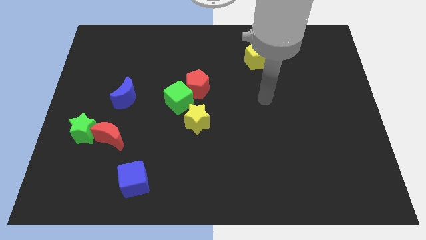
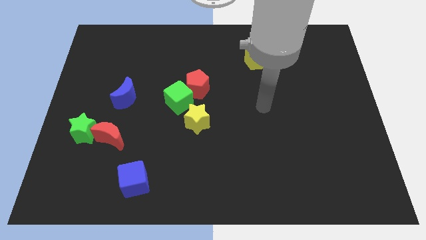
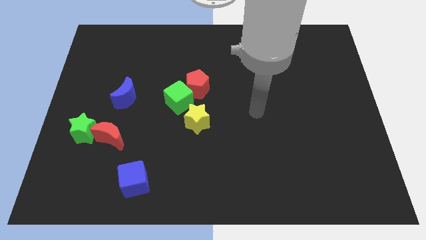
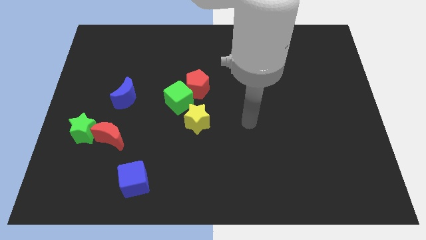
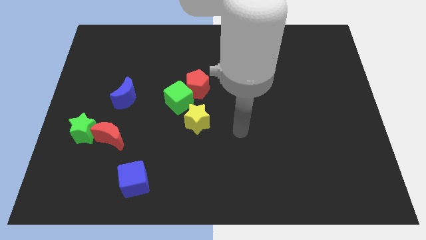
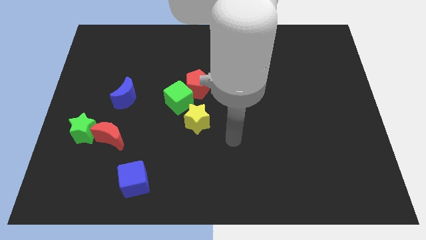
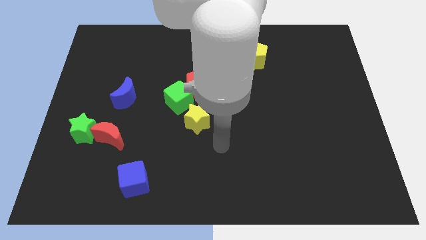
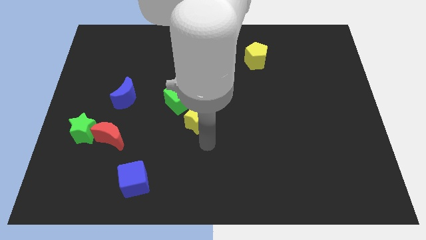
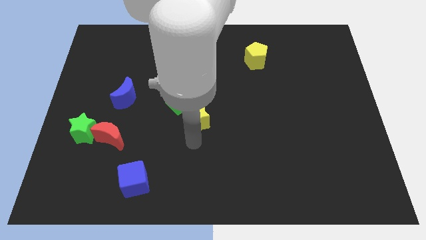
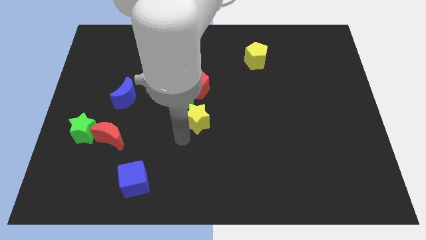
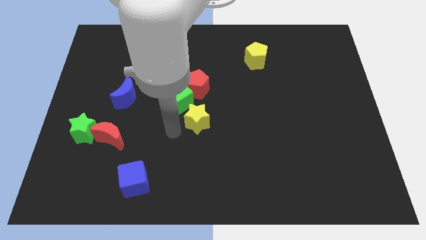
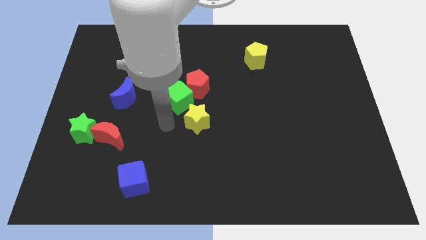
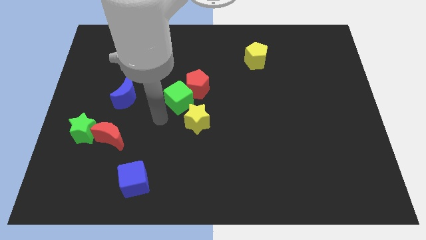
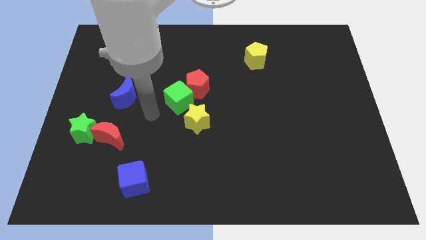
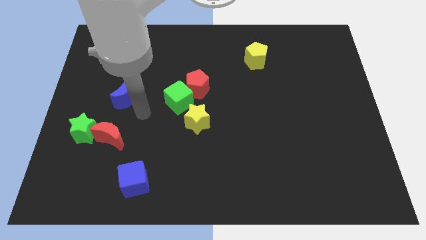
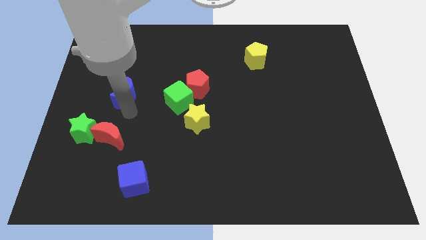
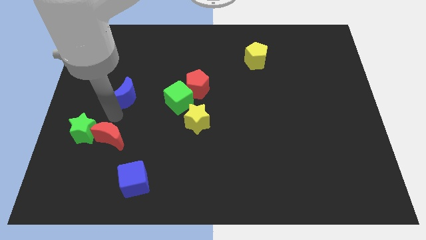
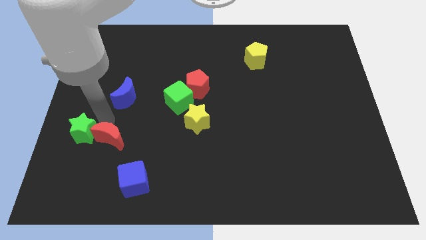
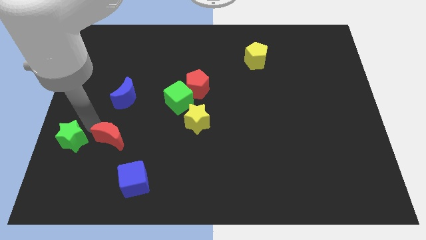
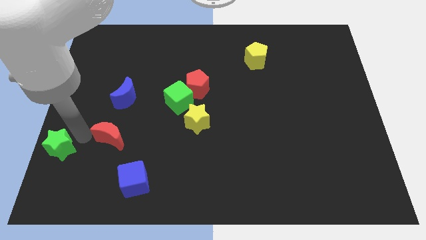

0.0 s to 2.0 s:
separate the red moon from the green star

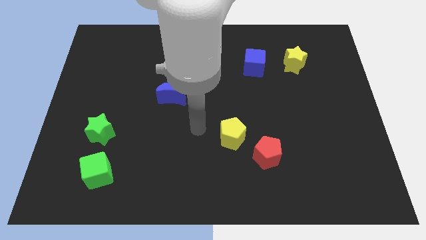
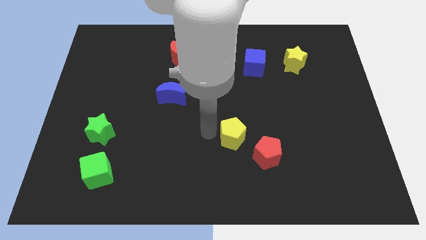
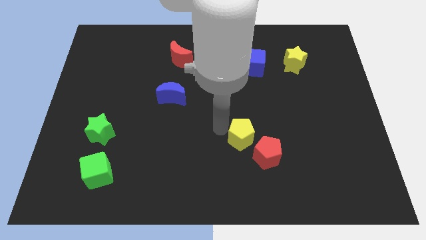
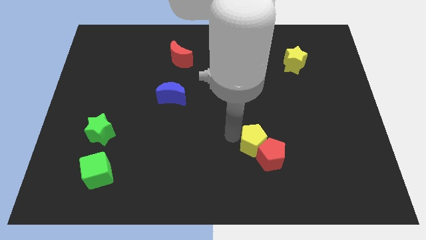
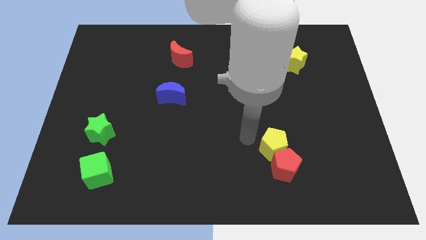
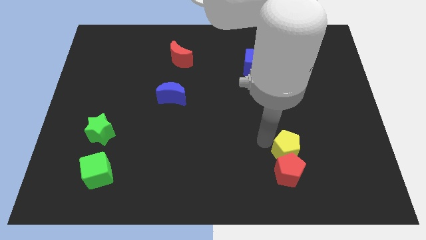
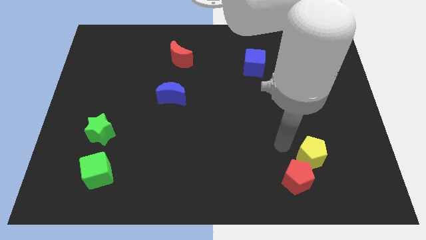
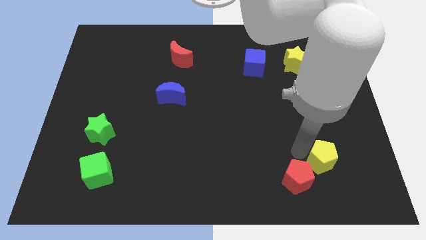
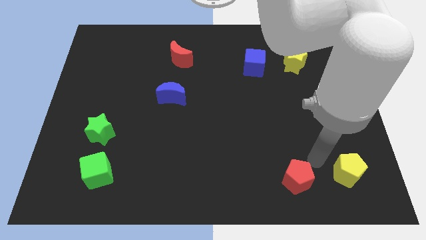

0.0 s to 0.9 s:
pull the red pentagon apart from the yellow pentagon

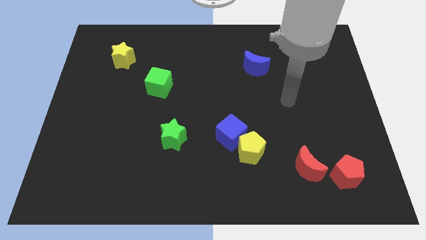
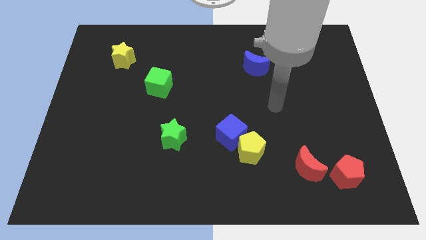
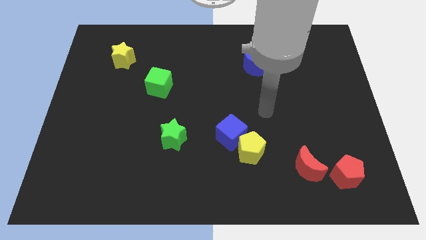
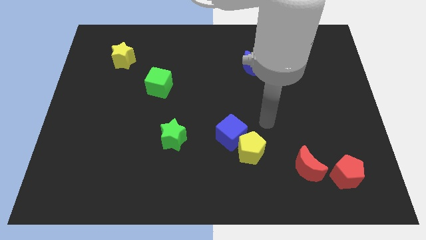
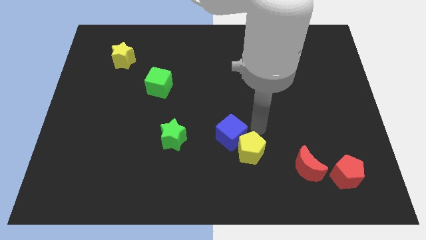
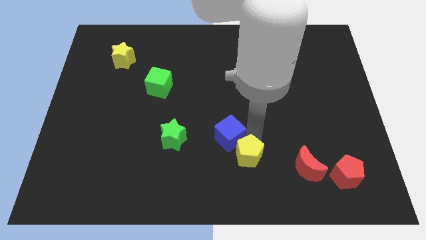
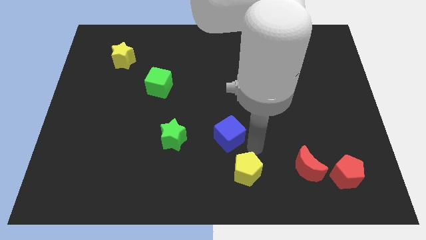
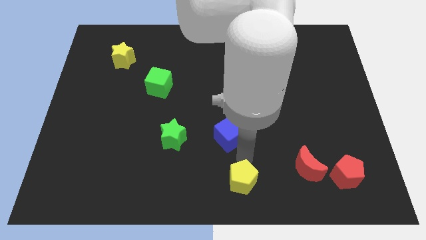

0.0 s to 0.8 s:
move the blue cube away from the yellow pentagon

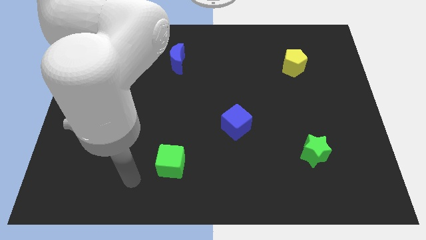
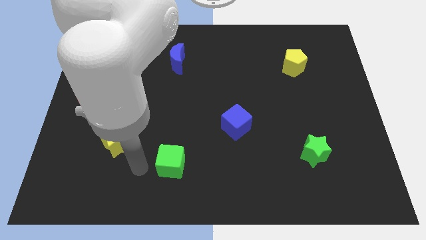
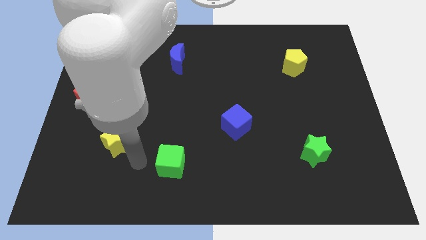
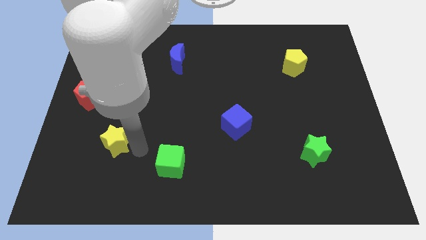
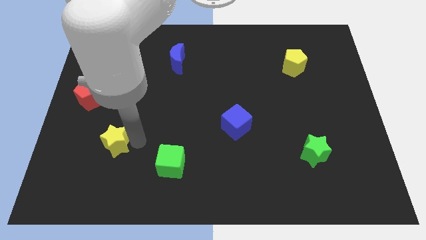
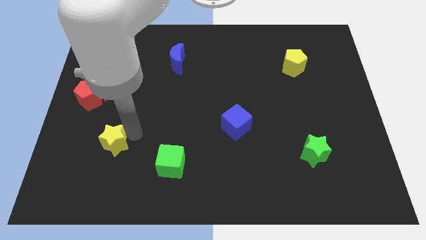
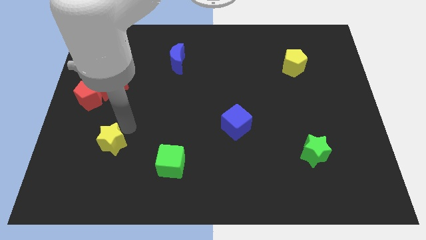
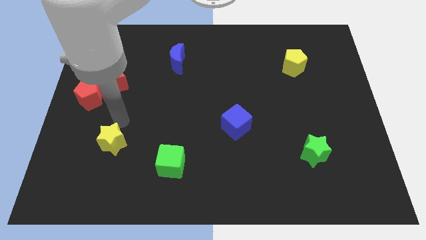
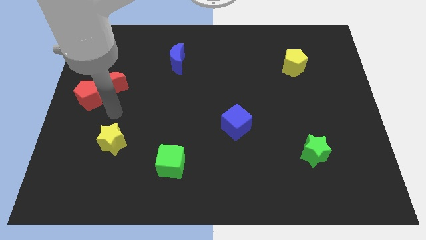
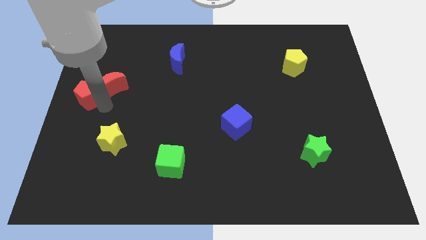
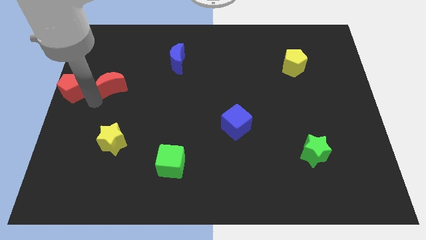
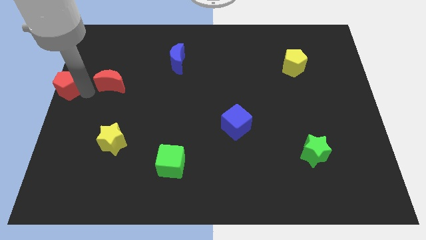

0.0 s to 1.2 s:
move the red moon away from the red pentagon

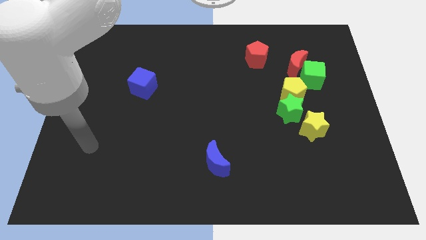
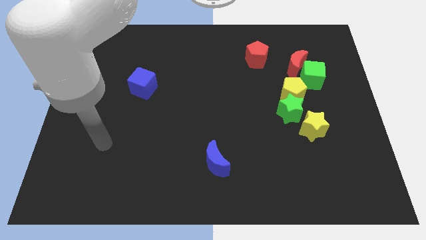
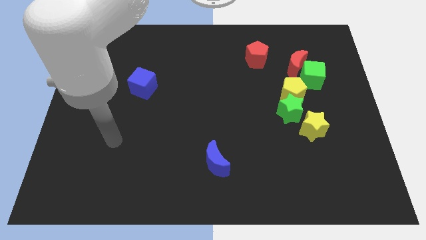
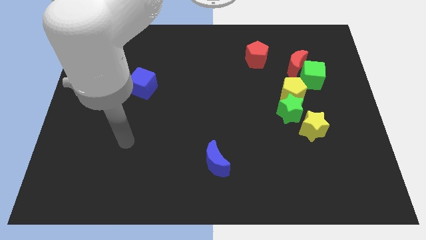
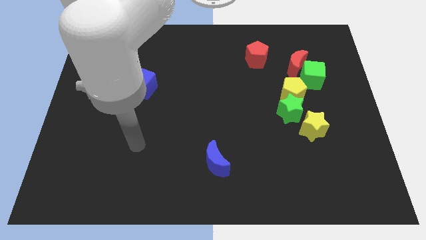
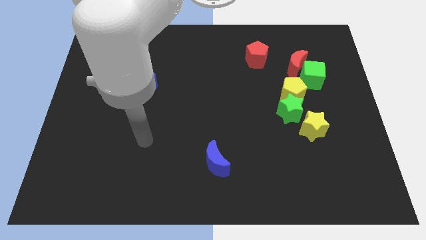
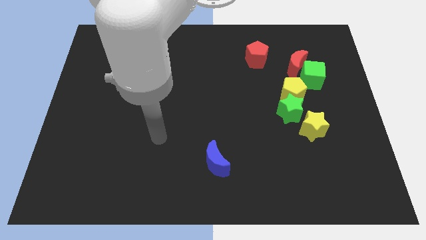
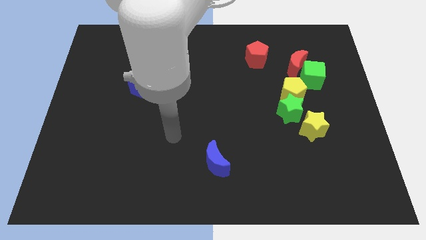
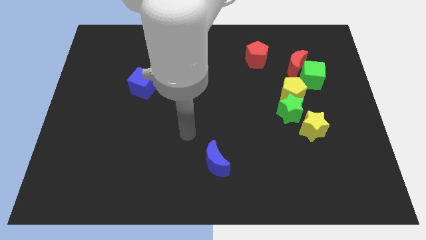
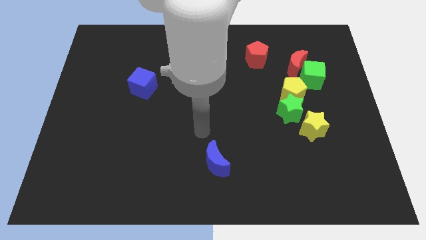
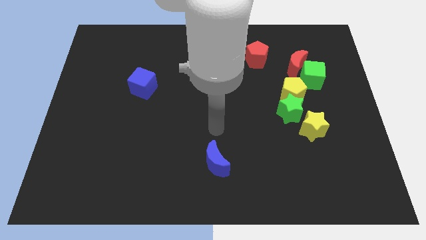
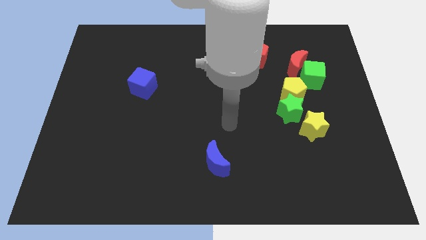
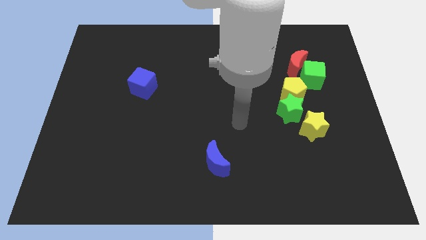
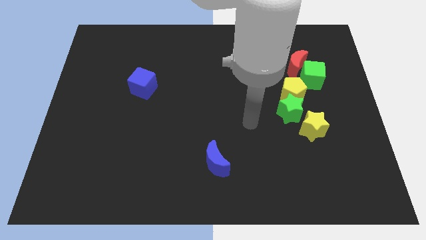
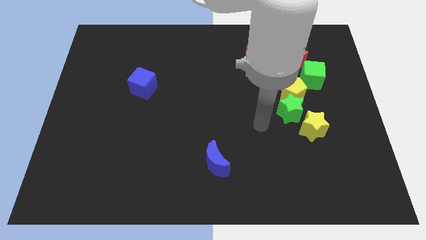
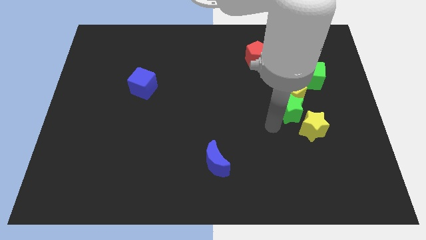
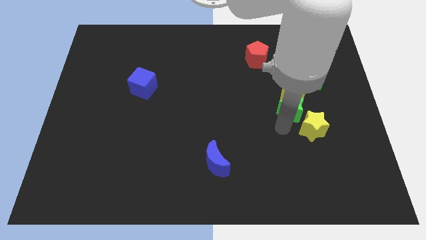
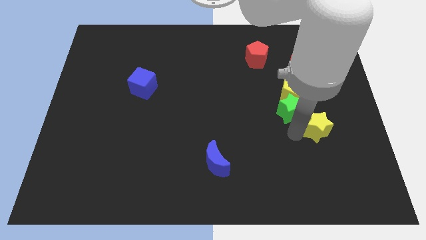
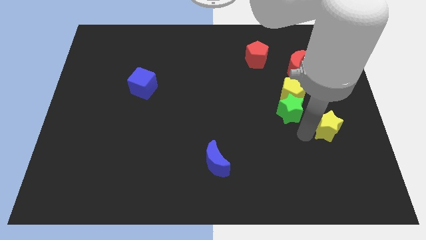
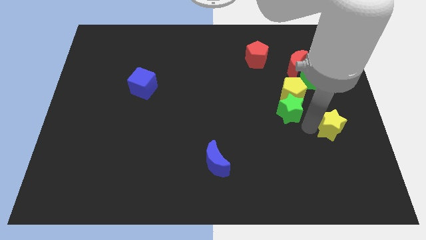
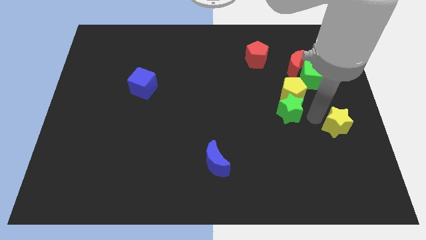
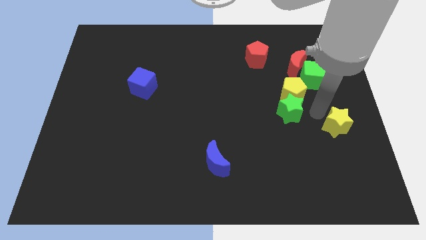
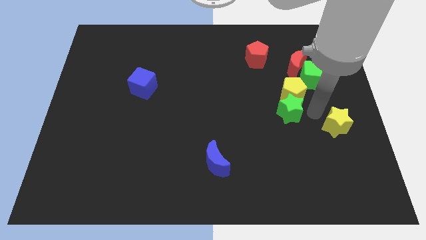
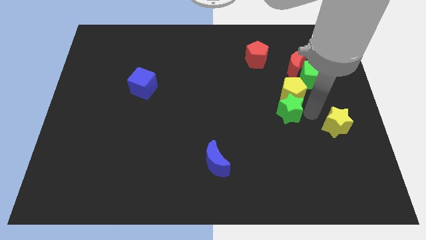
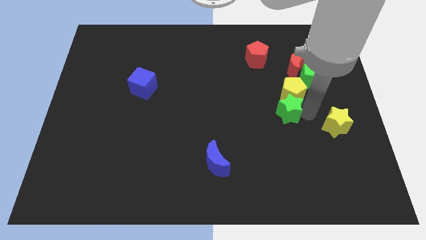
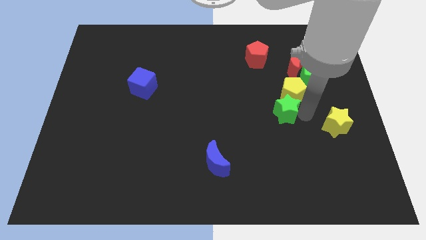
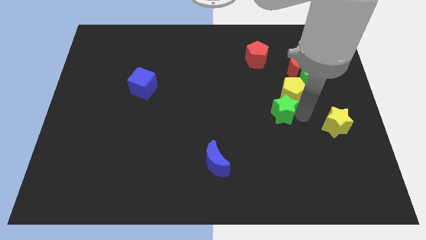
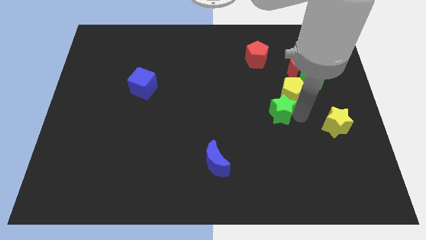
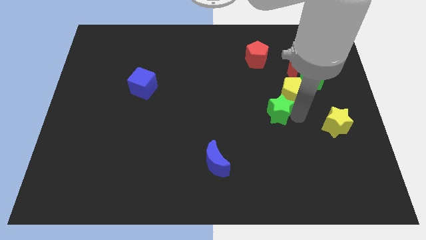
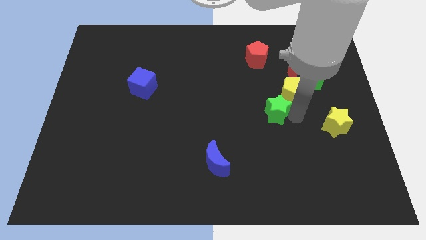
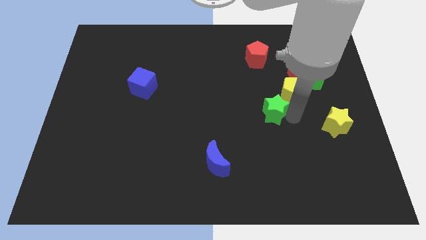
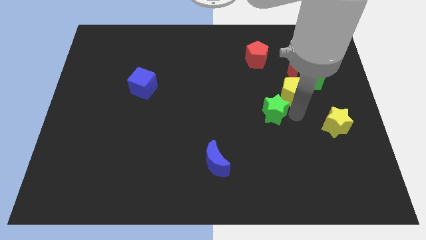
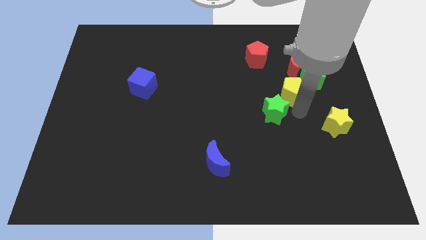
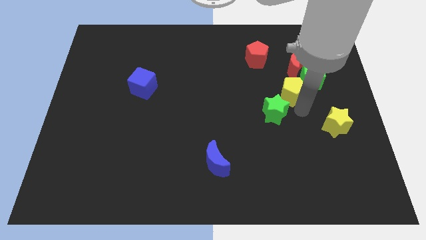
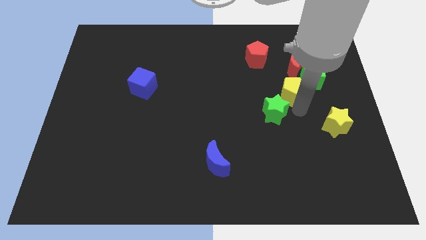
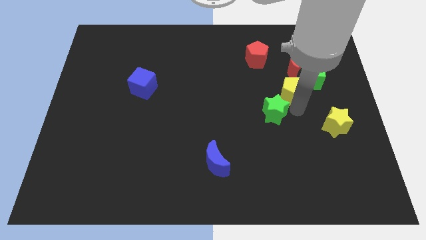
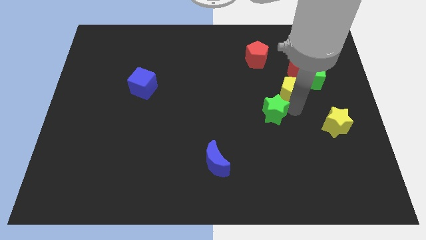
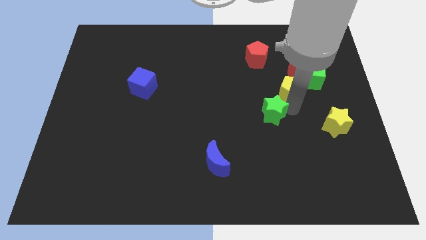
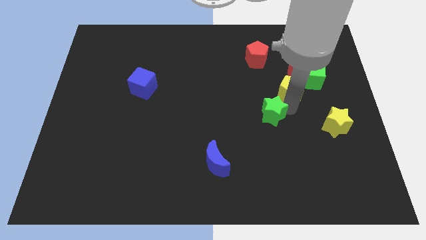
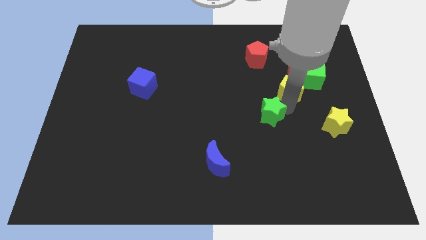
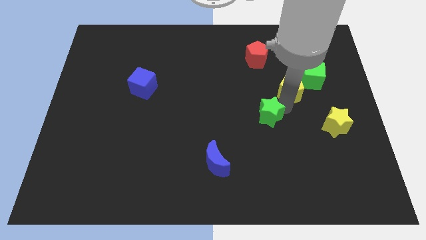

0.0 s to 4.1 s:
pull the green star apart from the yellow pentagon and yellow star

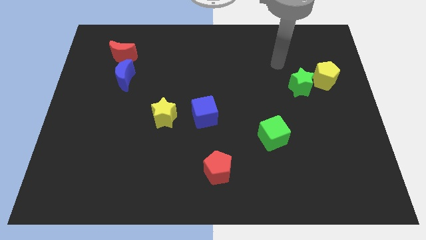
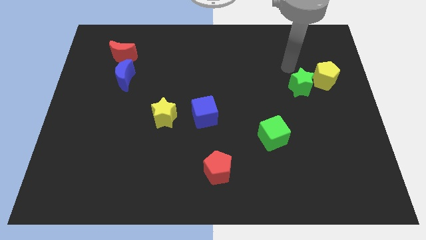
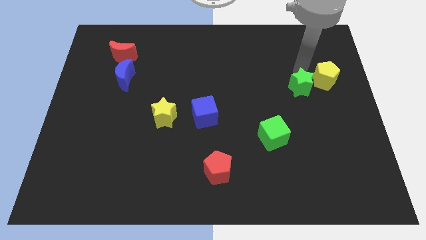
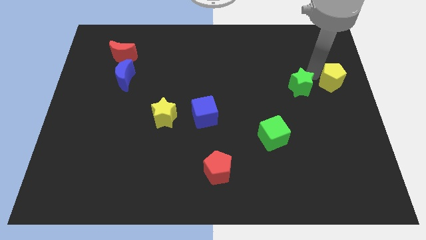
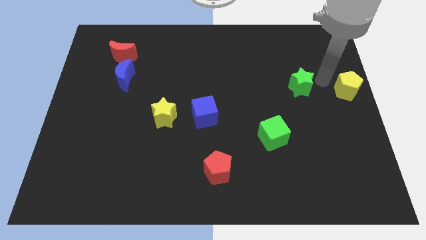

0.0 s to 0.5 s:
pull the green star apart from the yellow pentagon
